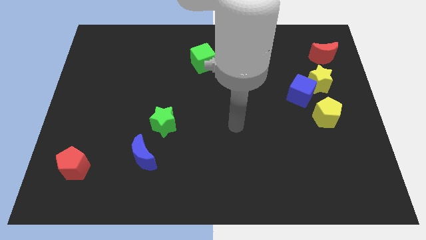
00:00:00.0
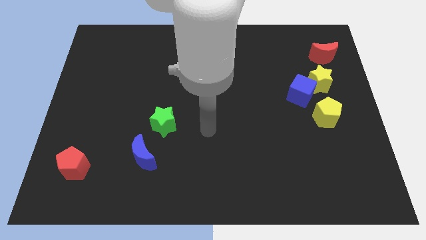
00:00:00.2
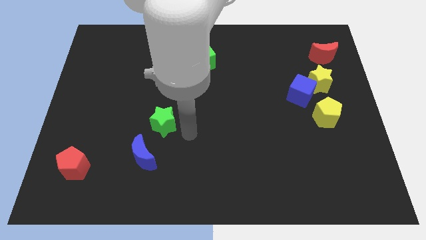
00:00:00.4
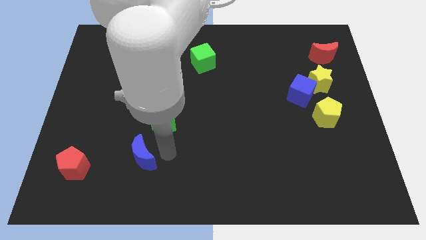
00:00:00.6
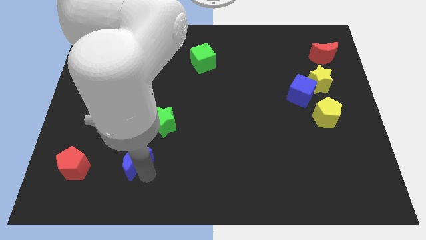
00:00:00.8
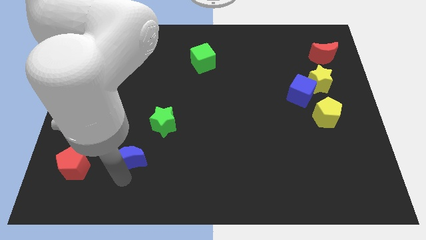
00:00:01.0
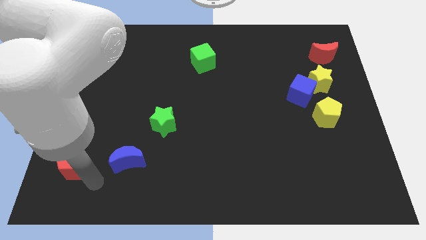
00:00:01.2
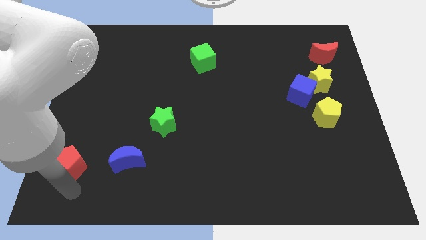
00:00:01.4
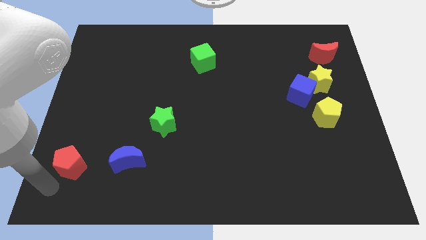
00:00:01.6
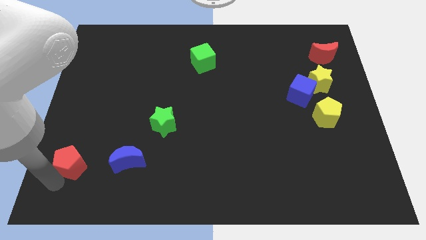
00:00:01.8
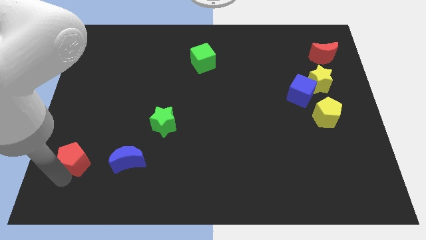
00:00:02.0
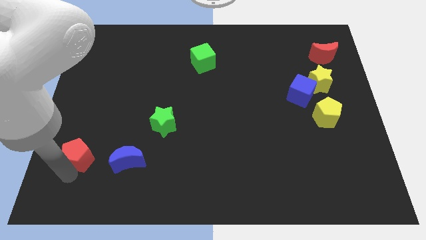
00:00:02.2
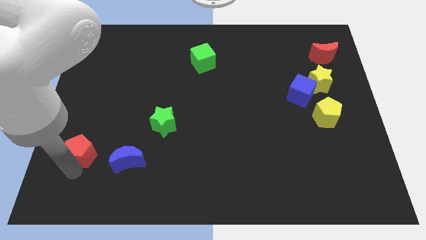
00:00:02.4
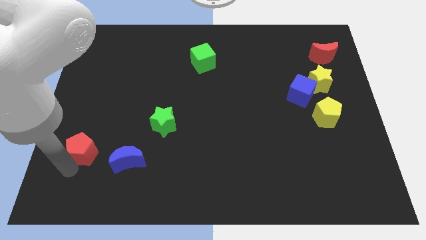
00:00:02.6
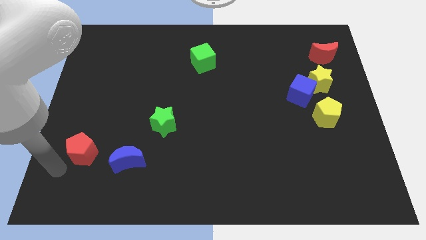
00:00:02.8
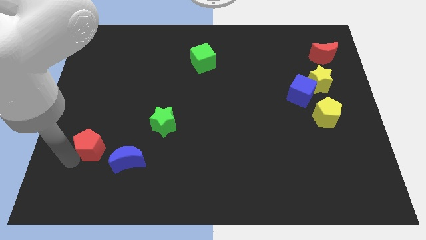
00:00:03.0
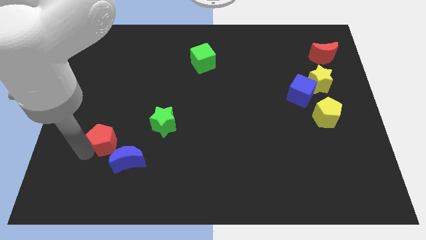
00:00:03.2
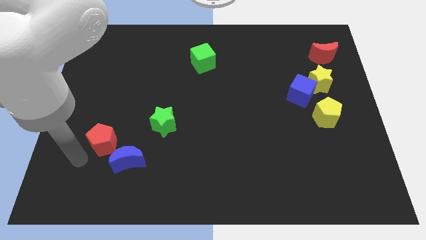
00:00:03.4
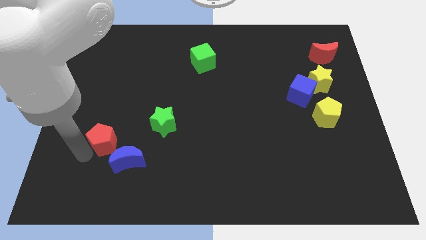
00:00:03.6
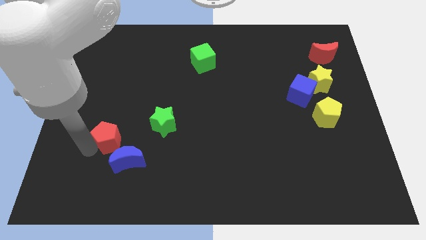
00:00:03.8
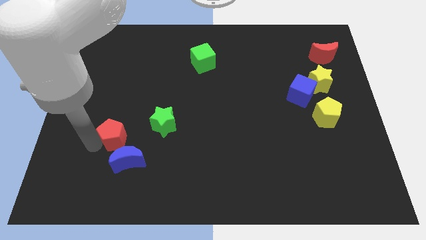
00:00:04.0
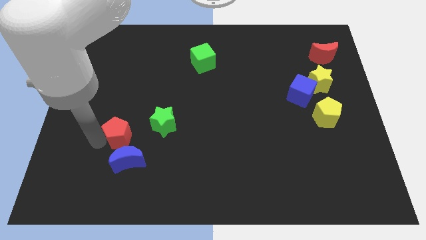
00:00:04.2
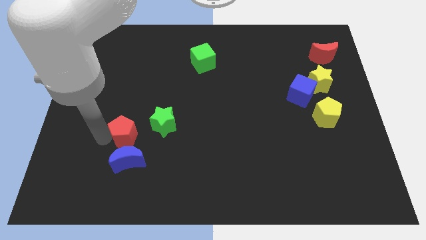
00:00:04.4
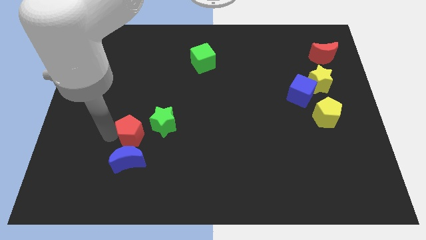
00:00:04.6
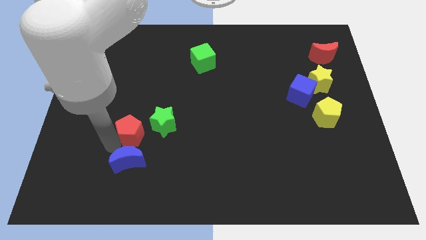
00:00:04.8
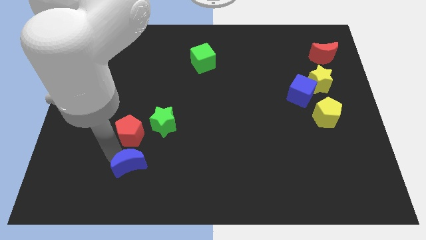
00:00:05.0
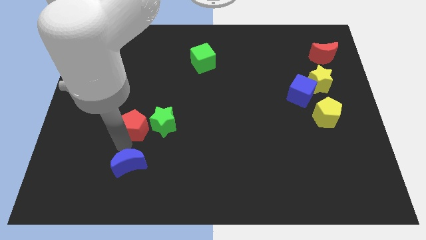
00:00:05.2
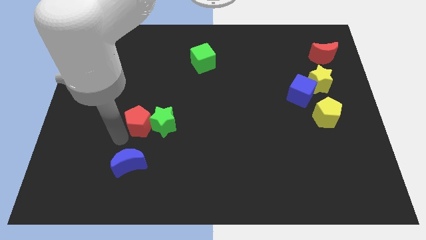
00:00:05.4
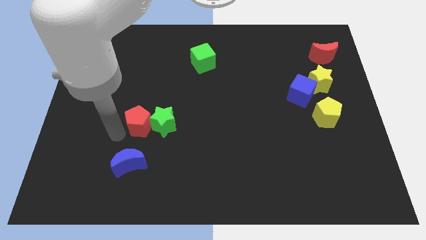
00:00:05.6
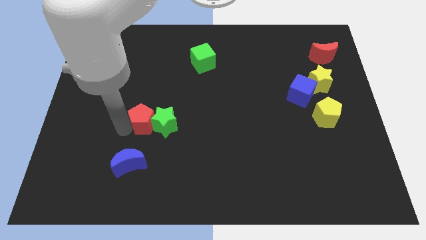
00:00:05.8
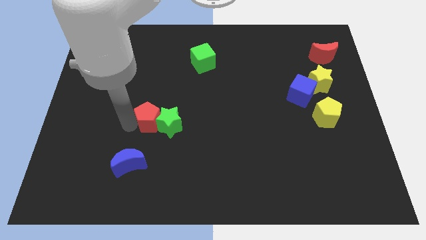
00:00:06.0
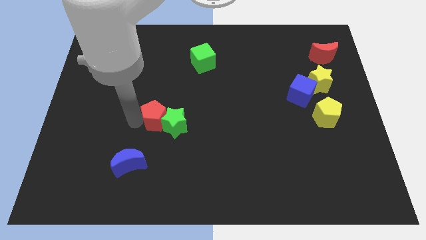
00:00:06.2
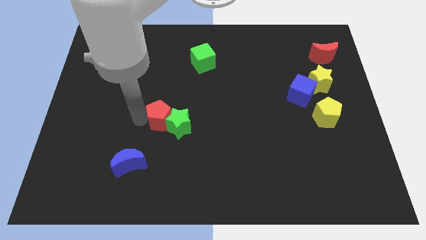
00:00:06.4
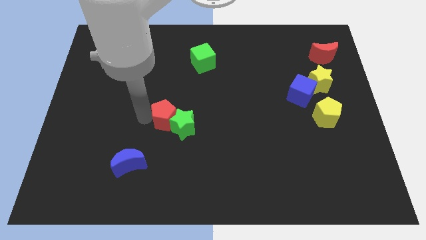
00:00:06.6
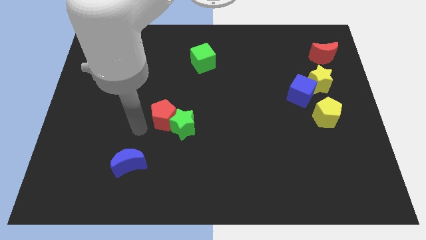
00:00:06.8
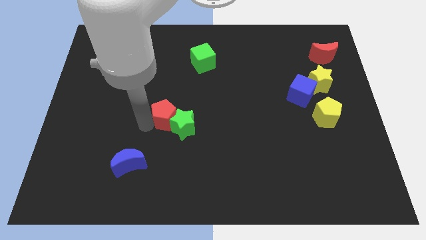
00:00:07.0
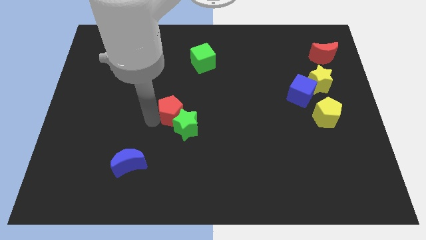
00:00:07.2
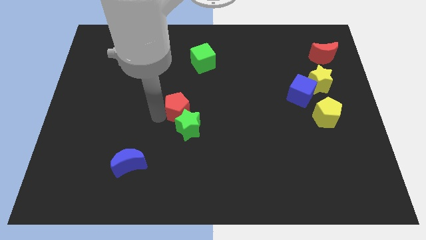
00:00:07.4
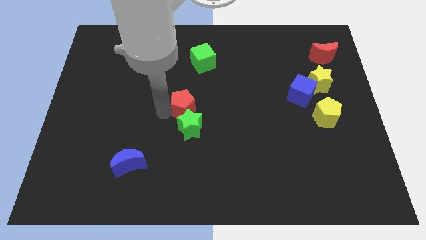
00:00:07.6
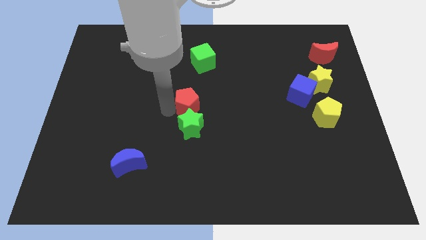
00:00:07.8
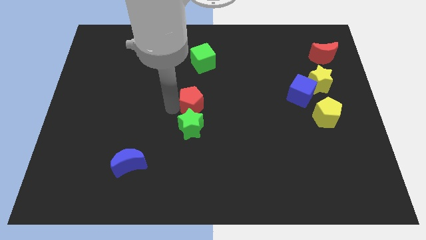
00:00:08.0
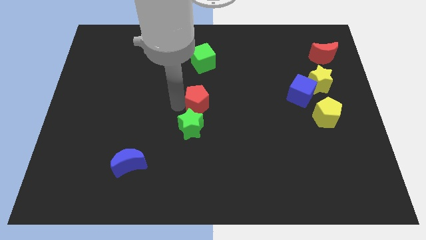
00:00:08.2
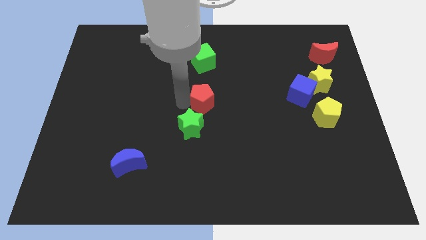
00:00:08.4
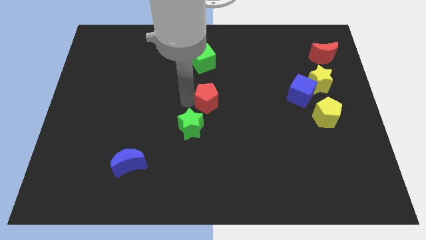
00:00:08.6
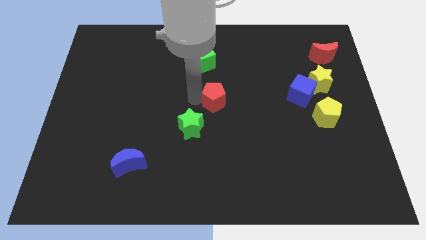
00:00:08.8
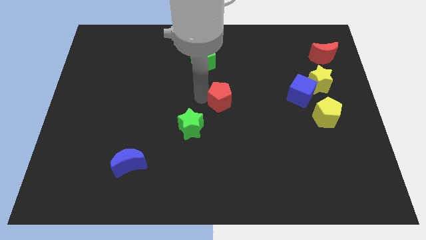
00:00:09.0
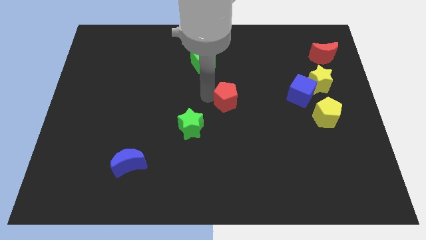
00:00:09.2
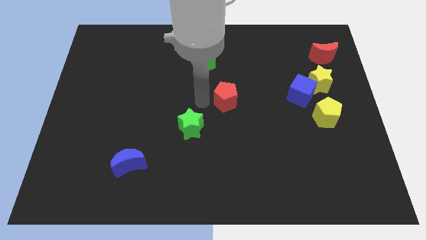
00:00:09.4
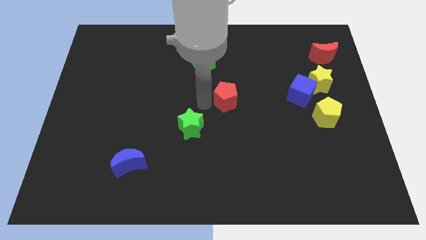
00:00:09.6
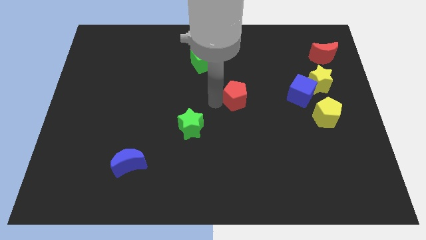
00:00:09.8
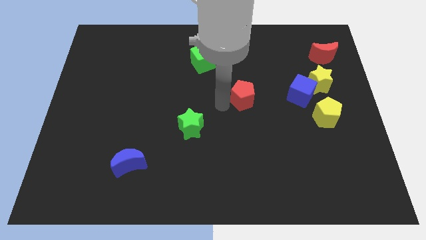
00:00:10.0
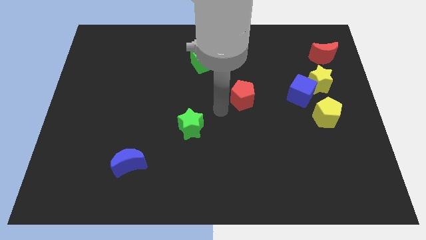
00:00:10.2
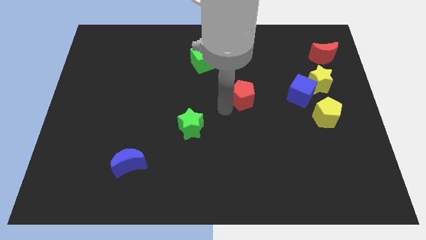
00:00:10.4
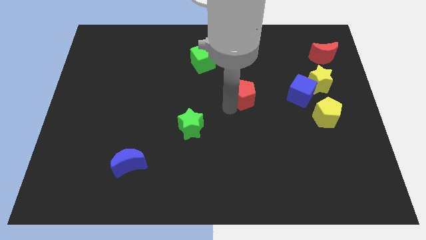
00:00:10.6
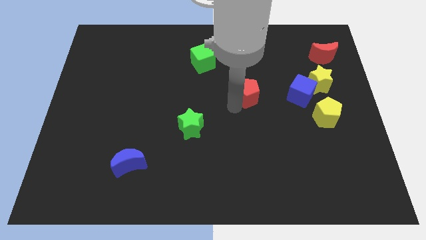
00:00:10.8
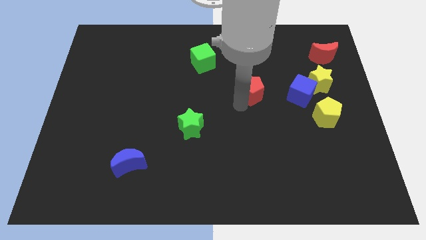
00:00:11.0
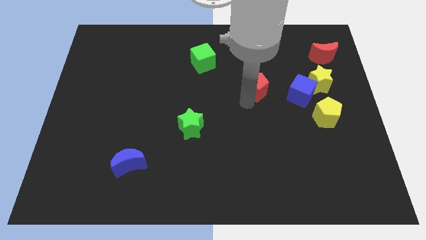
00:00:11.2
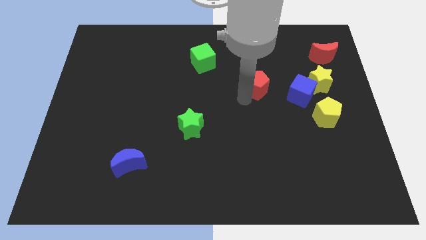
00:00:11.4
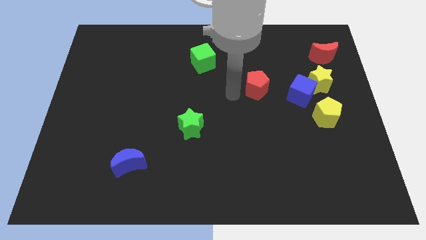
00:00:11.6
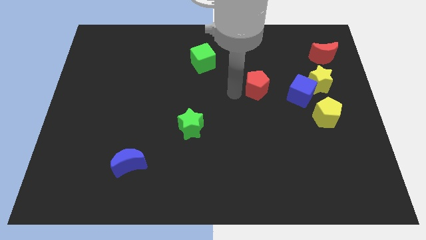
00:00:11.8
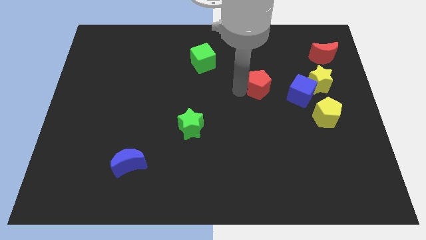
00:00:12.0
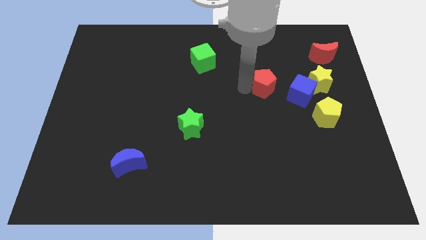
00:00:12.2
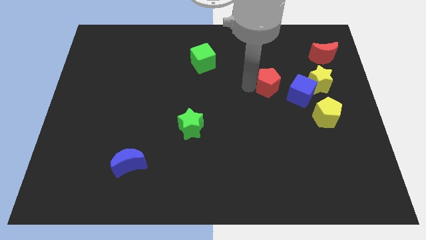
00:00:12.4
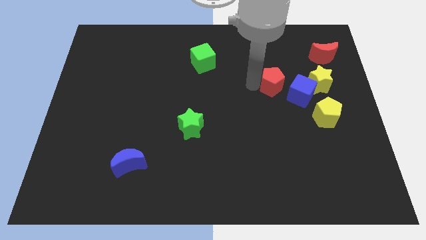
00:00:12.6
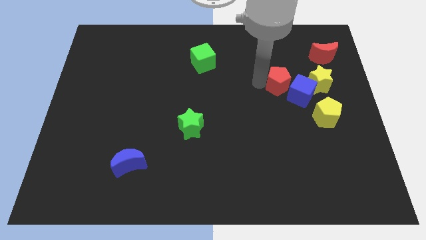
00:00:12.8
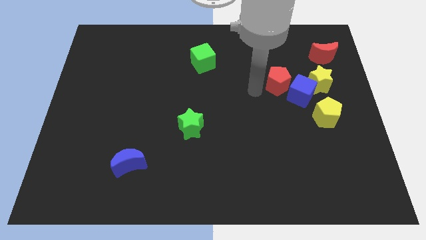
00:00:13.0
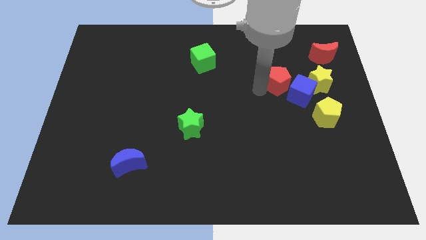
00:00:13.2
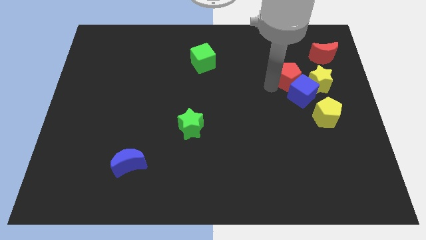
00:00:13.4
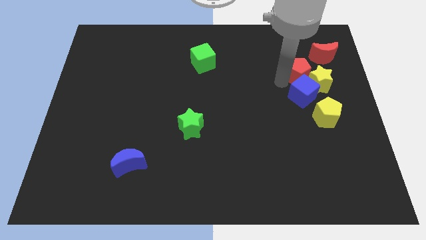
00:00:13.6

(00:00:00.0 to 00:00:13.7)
push the red pentagon to the top of the yellow pentagon
